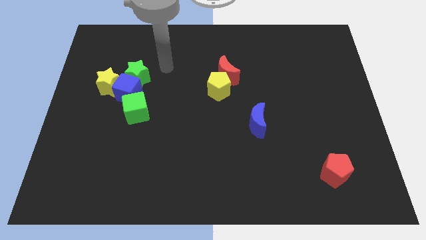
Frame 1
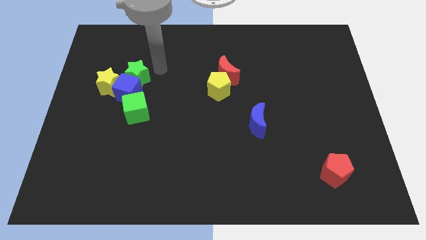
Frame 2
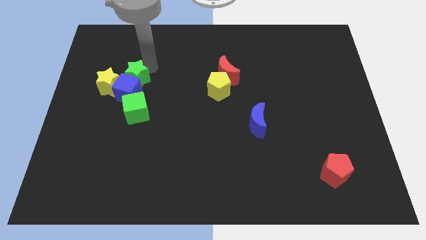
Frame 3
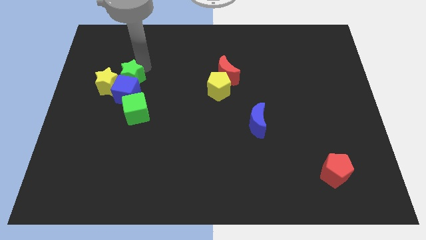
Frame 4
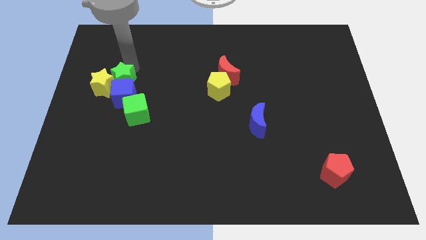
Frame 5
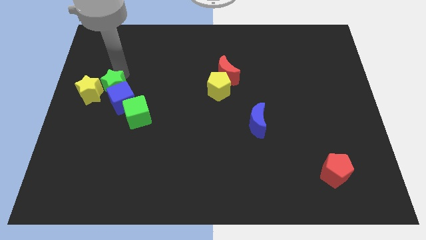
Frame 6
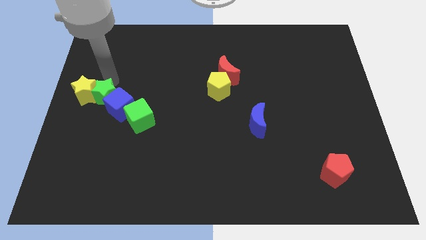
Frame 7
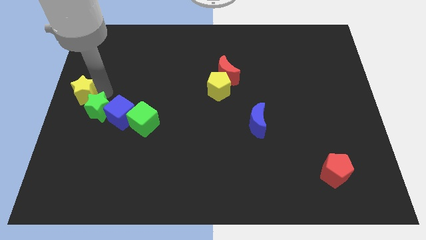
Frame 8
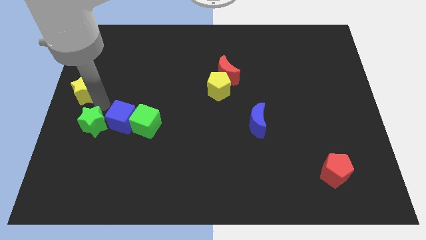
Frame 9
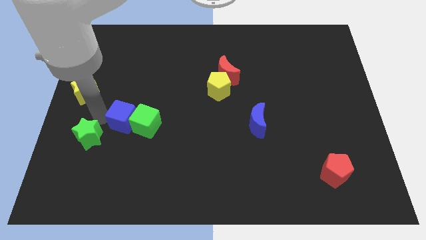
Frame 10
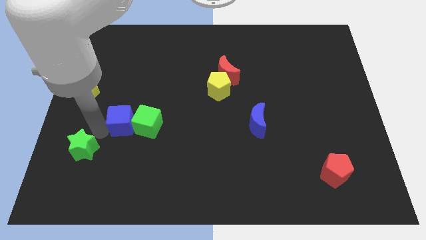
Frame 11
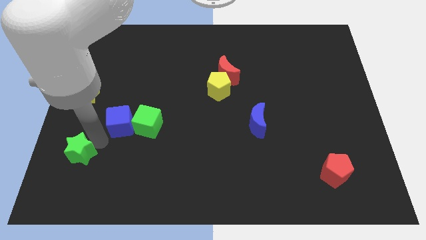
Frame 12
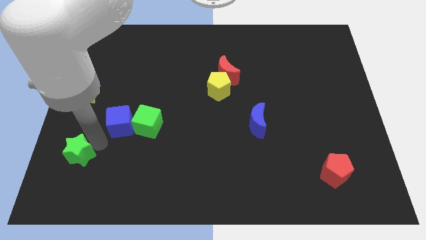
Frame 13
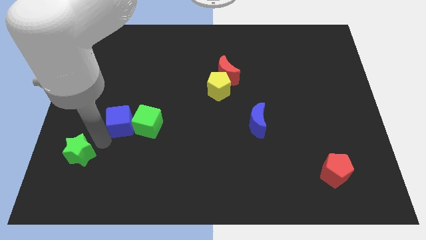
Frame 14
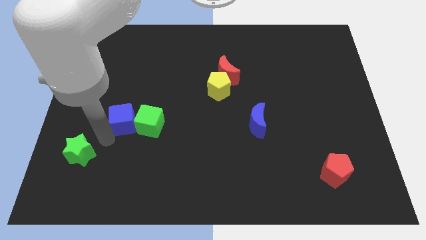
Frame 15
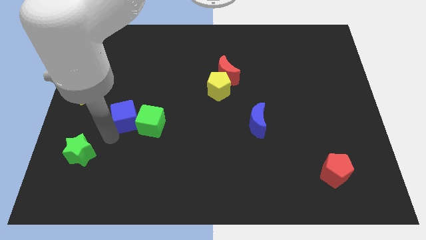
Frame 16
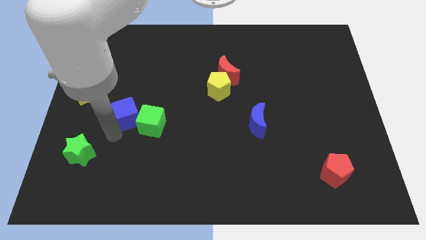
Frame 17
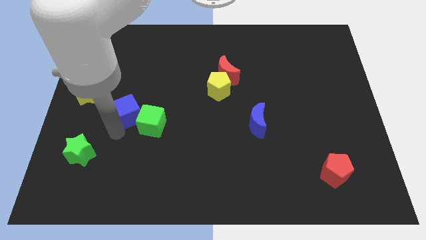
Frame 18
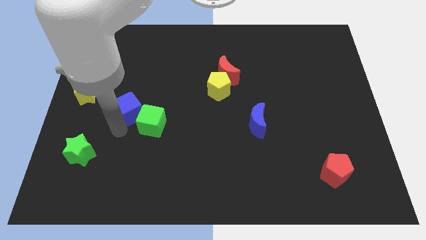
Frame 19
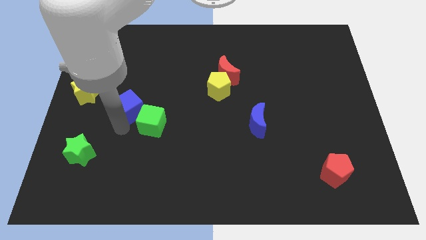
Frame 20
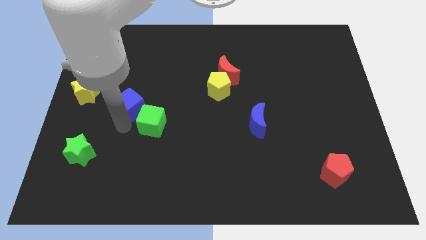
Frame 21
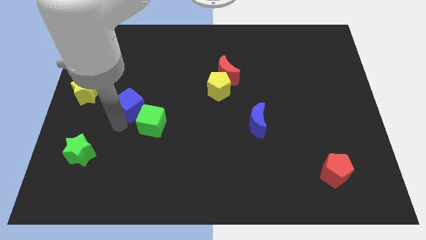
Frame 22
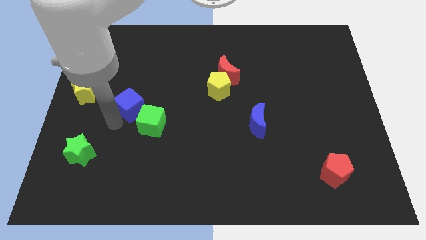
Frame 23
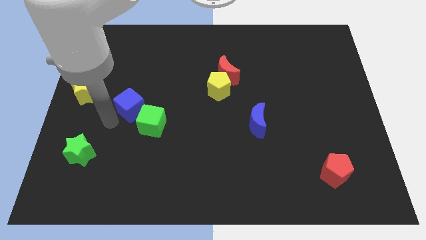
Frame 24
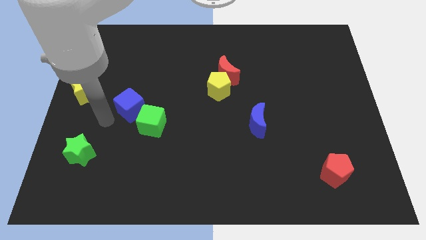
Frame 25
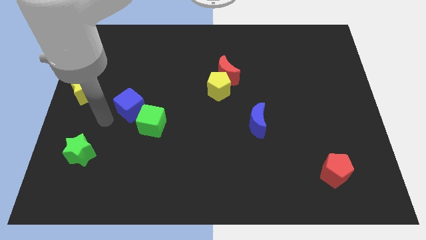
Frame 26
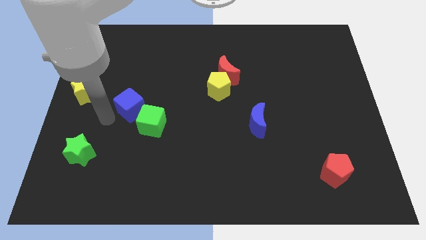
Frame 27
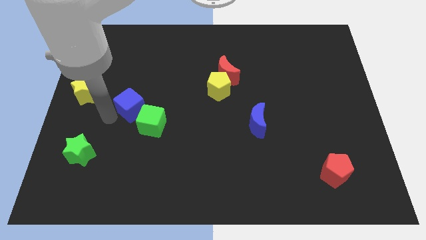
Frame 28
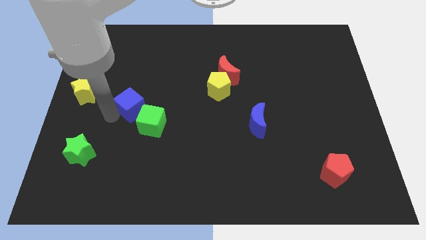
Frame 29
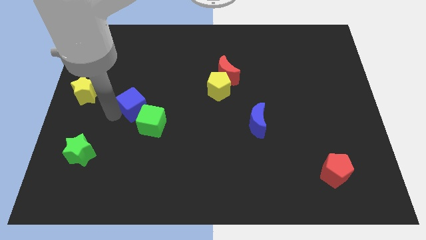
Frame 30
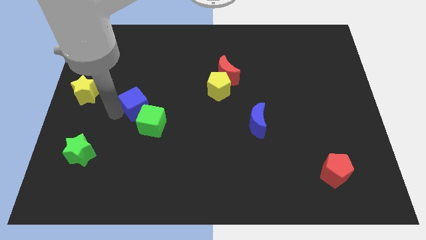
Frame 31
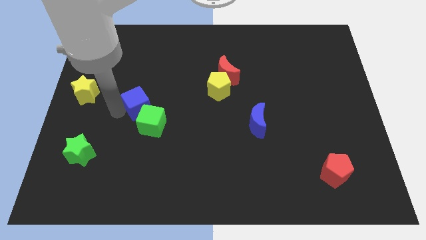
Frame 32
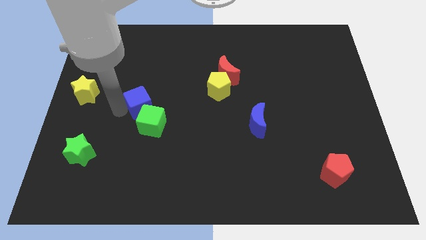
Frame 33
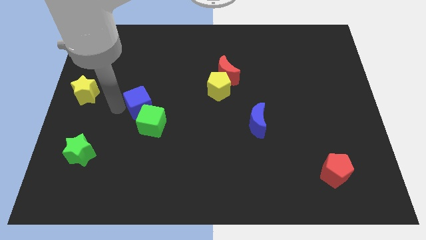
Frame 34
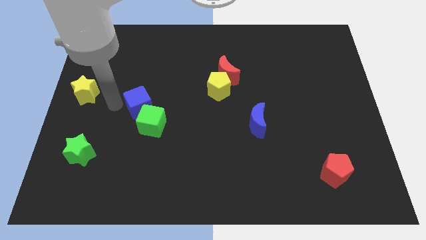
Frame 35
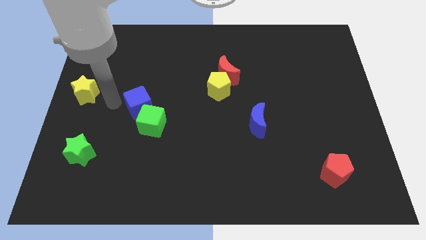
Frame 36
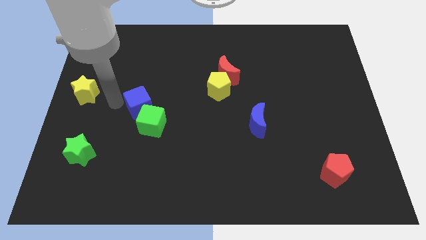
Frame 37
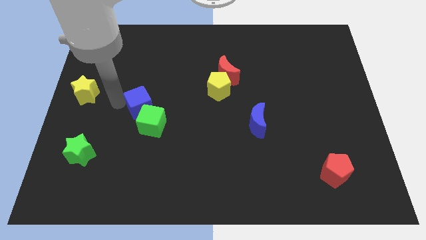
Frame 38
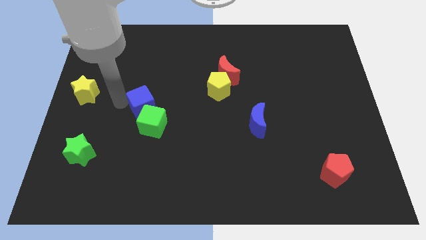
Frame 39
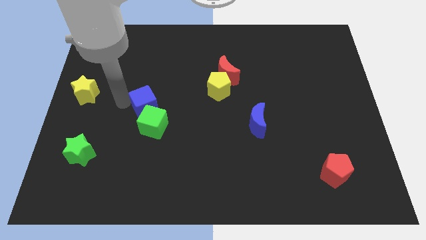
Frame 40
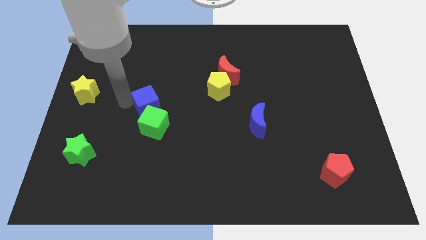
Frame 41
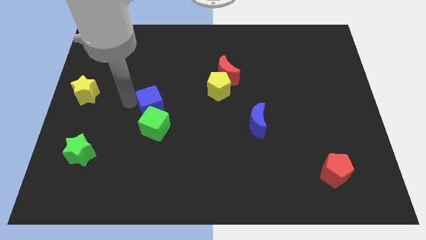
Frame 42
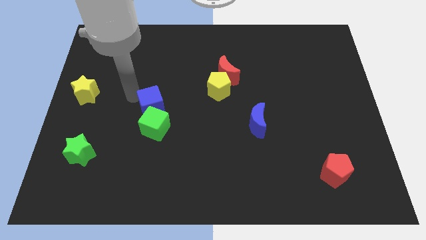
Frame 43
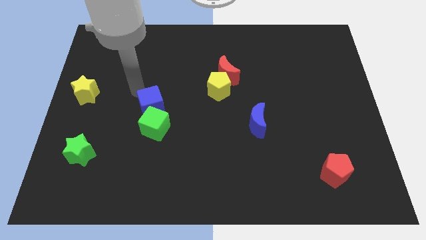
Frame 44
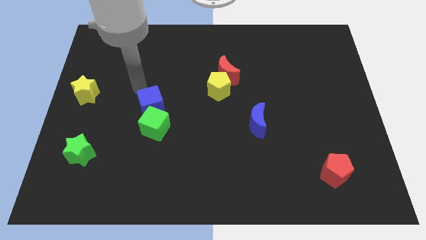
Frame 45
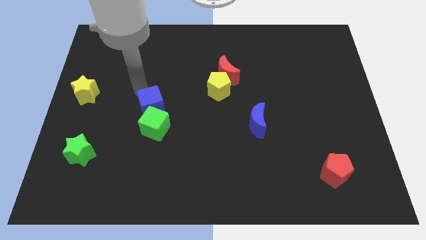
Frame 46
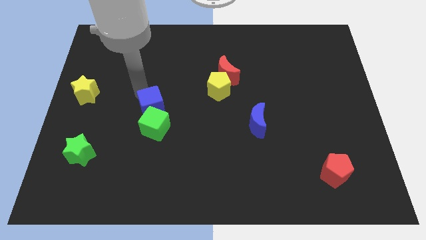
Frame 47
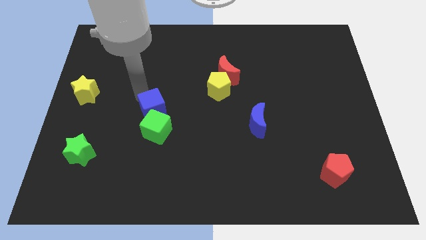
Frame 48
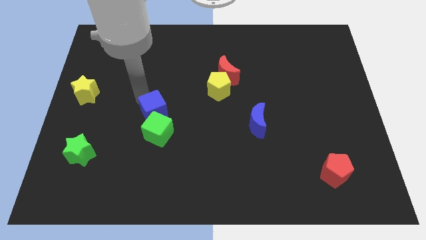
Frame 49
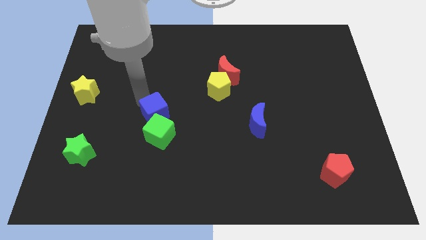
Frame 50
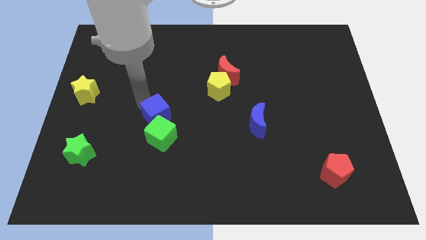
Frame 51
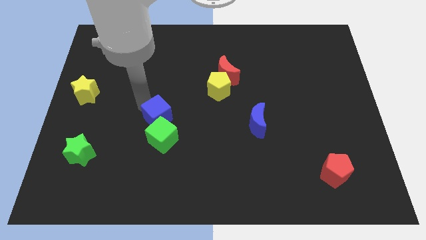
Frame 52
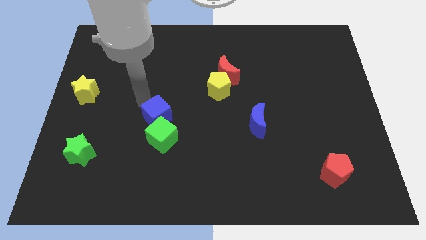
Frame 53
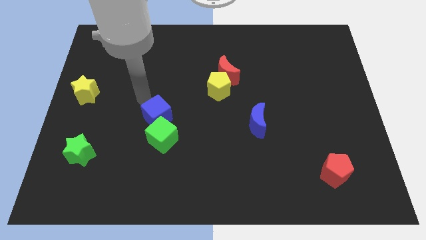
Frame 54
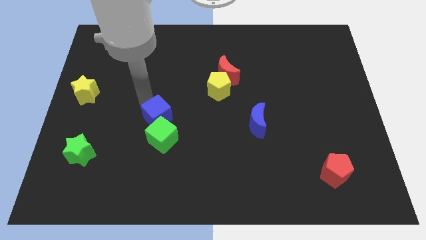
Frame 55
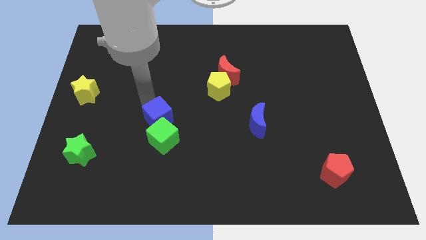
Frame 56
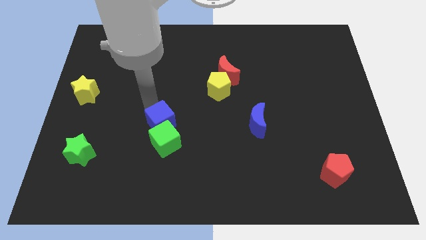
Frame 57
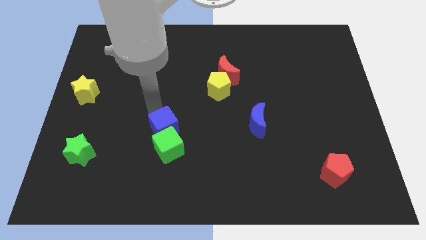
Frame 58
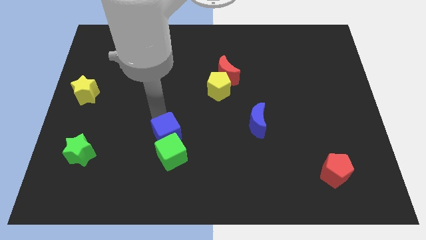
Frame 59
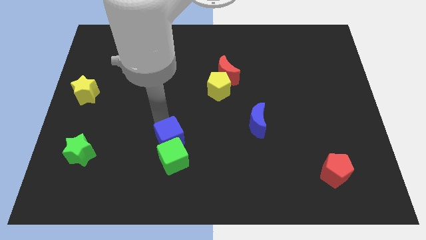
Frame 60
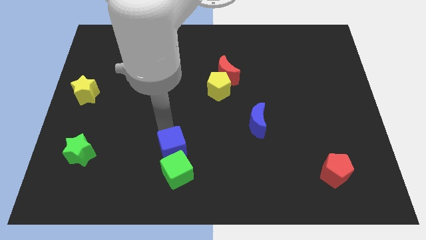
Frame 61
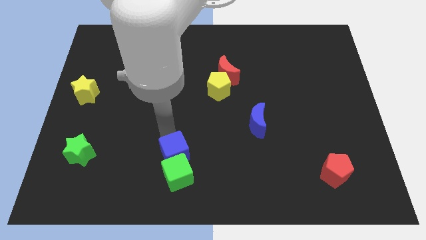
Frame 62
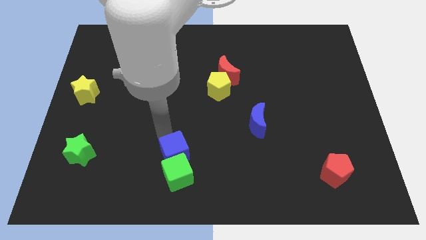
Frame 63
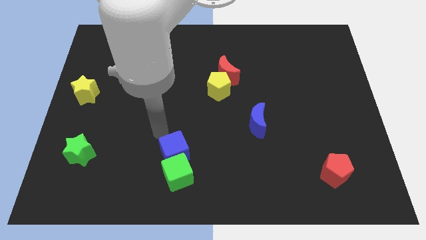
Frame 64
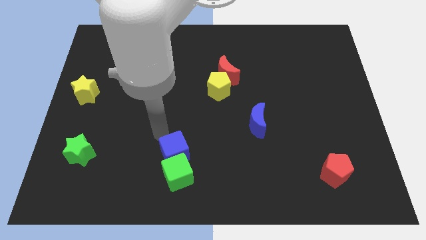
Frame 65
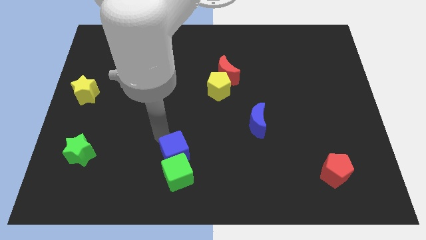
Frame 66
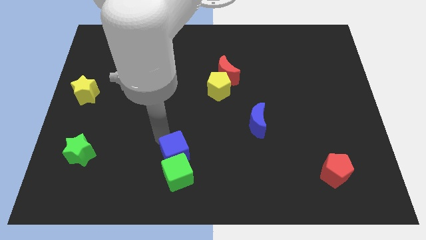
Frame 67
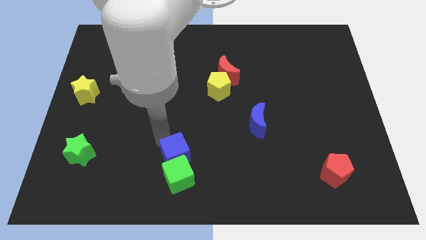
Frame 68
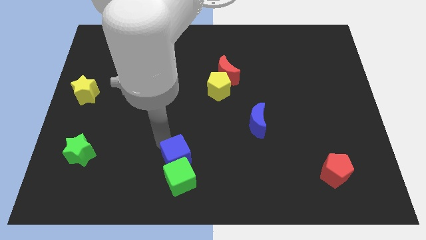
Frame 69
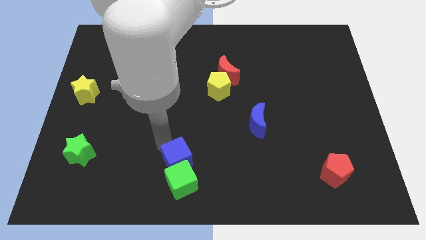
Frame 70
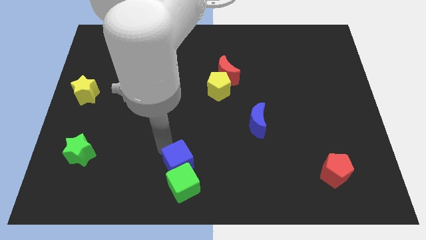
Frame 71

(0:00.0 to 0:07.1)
push the blue cube to the bottom side
